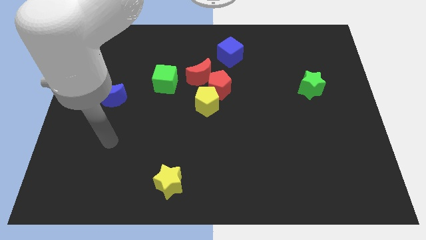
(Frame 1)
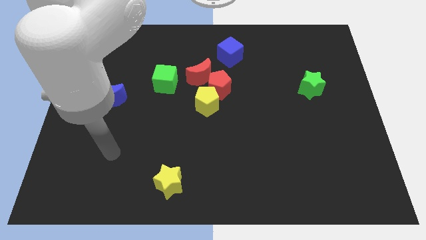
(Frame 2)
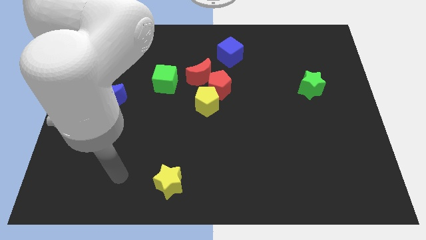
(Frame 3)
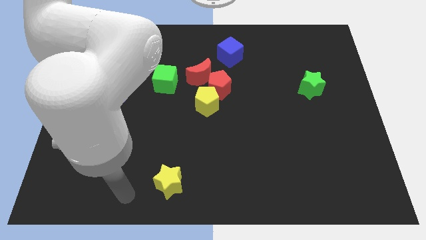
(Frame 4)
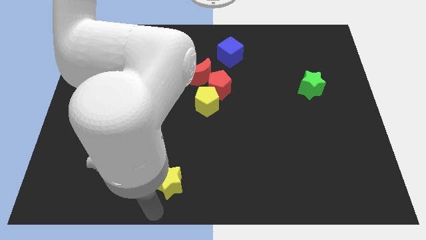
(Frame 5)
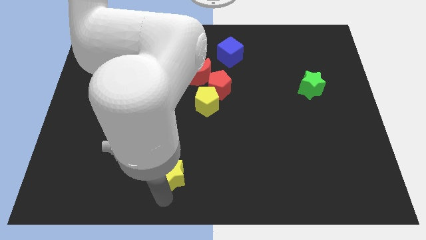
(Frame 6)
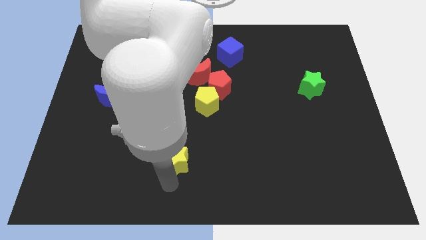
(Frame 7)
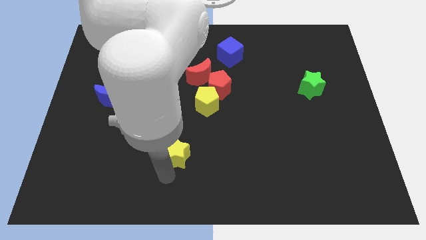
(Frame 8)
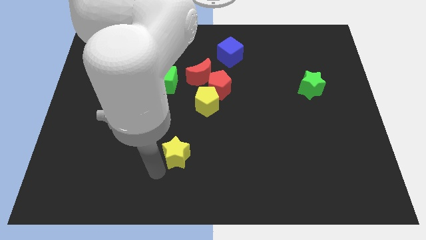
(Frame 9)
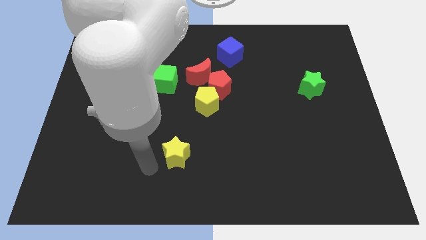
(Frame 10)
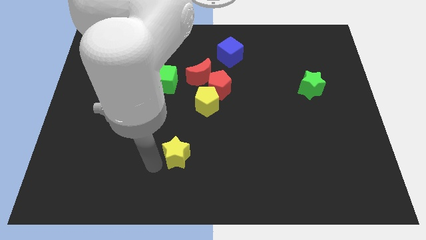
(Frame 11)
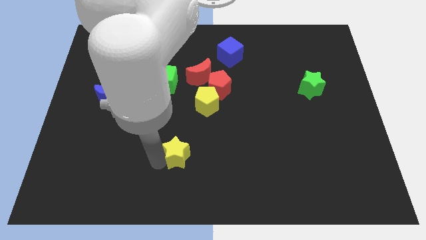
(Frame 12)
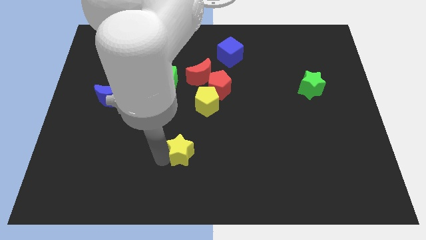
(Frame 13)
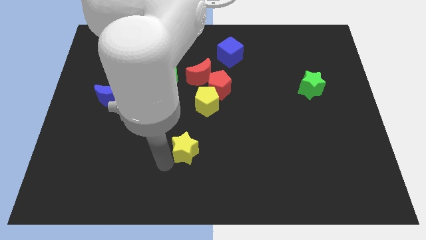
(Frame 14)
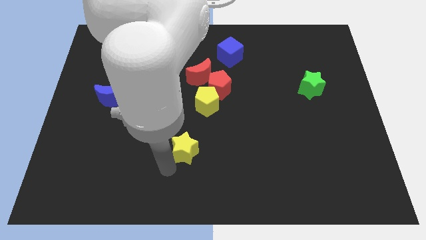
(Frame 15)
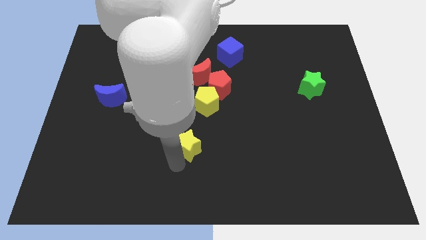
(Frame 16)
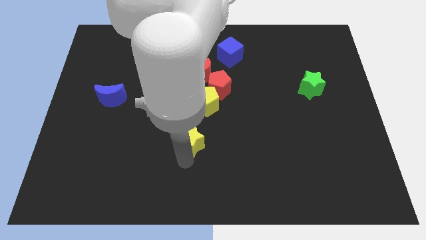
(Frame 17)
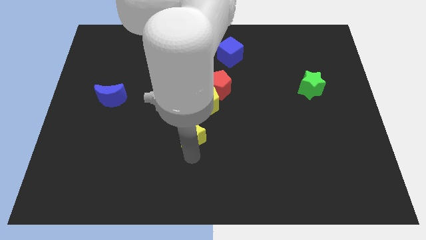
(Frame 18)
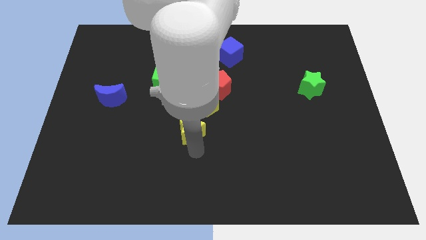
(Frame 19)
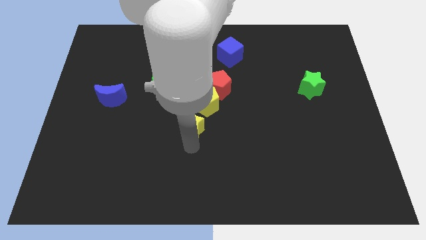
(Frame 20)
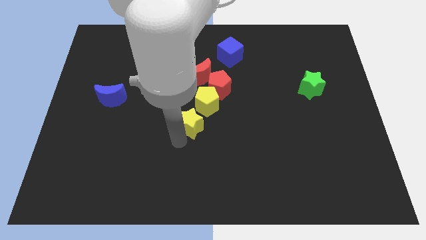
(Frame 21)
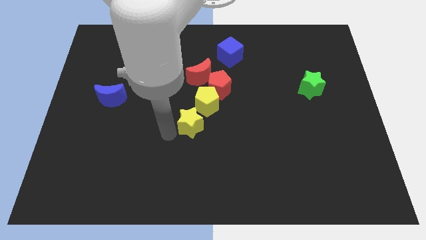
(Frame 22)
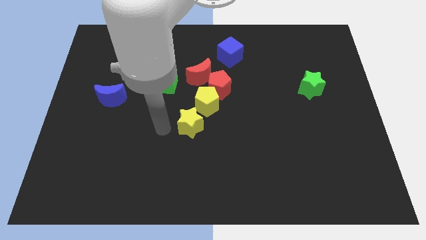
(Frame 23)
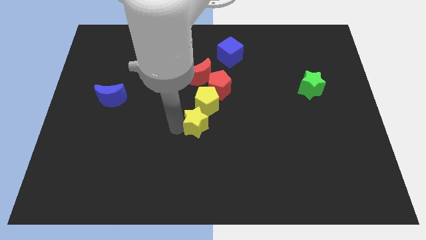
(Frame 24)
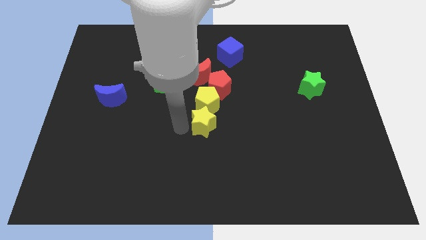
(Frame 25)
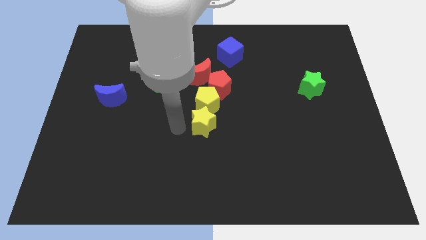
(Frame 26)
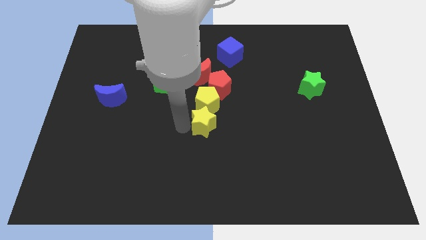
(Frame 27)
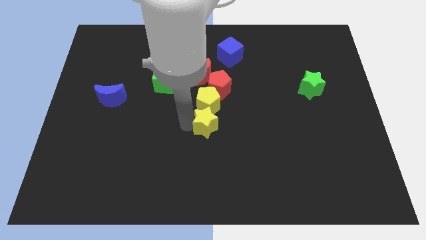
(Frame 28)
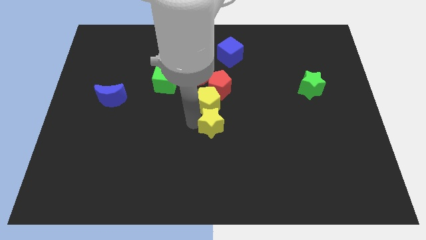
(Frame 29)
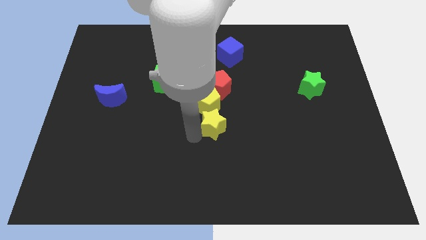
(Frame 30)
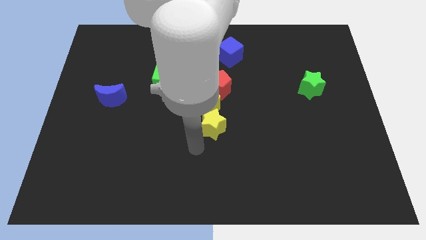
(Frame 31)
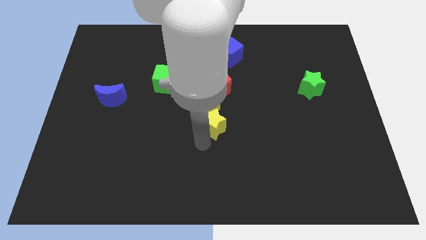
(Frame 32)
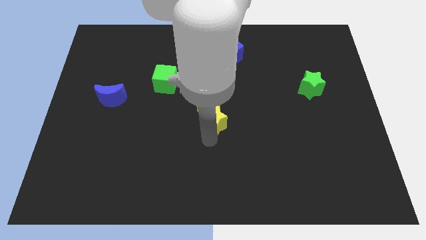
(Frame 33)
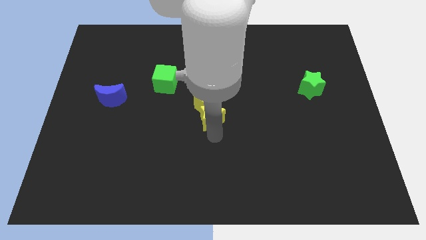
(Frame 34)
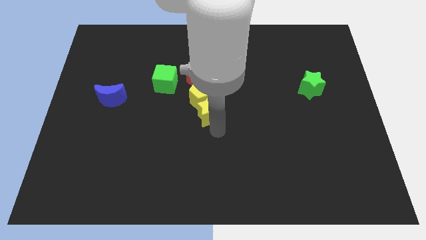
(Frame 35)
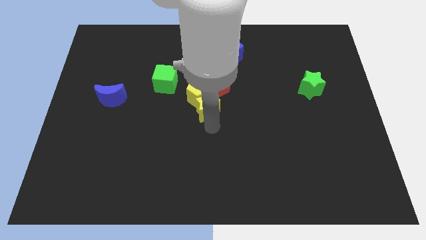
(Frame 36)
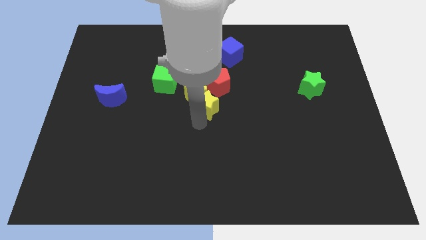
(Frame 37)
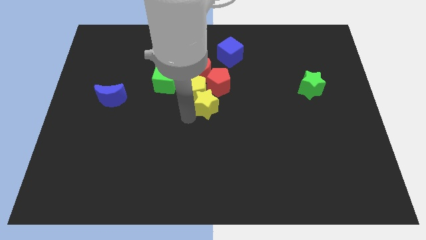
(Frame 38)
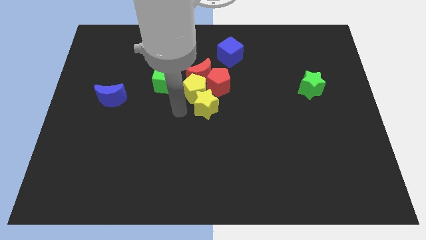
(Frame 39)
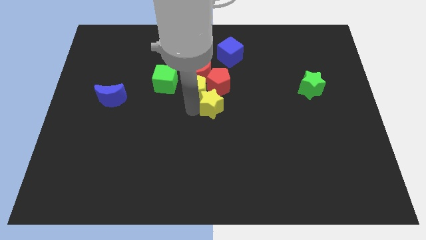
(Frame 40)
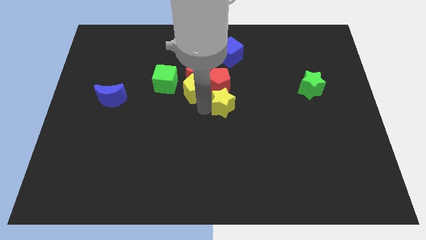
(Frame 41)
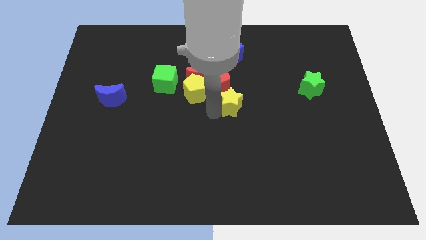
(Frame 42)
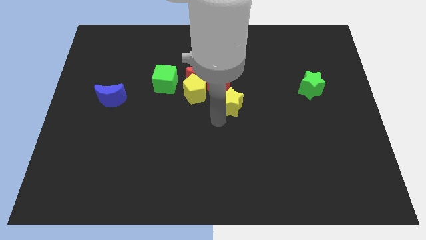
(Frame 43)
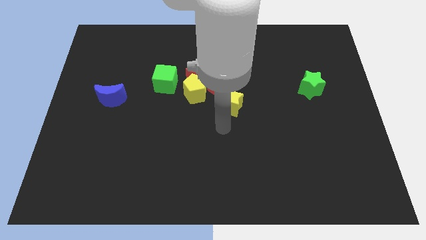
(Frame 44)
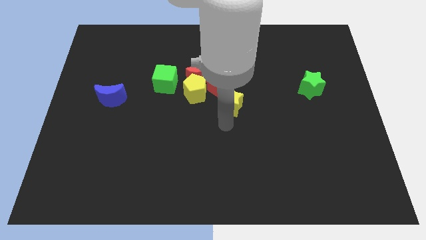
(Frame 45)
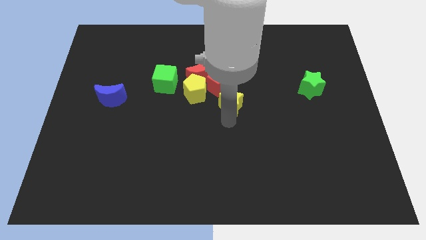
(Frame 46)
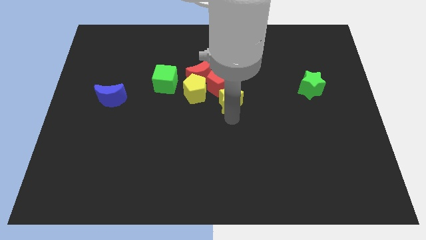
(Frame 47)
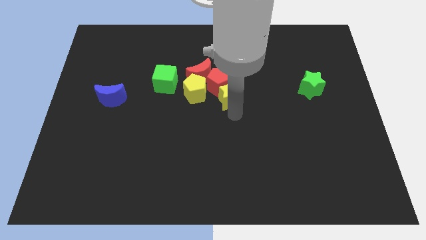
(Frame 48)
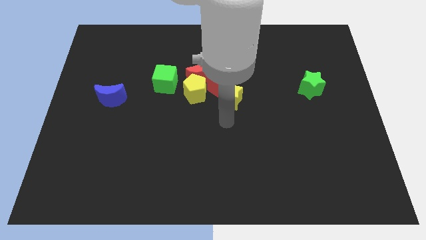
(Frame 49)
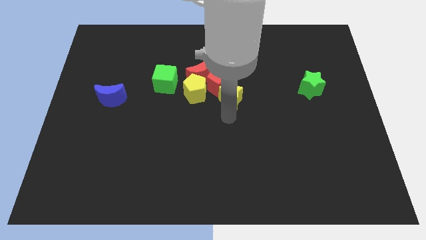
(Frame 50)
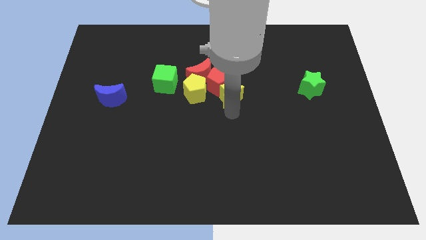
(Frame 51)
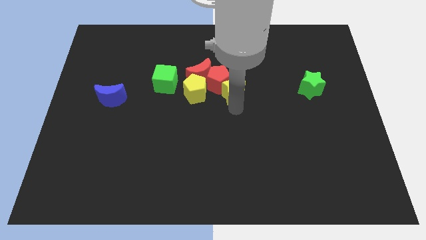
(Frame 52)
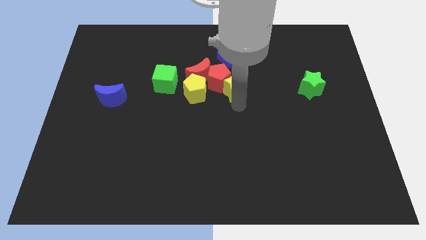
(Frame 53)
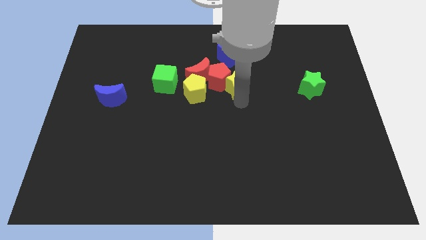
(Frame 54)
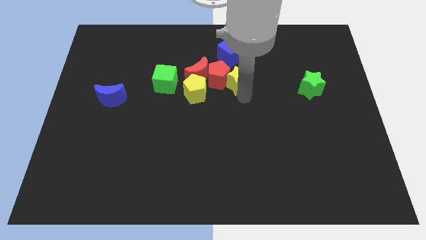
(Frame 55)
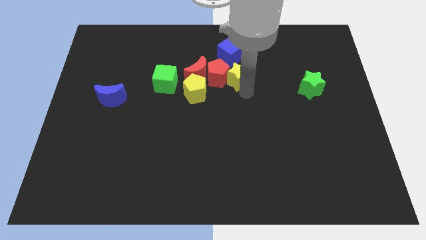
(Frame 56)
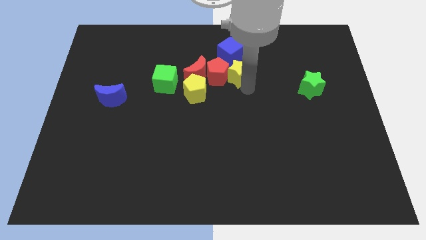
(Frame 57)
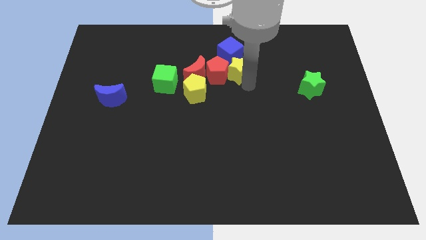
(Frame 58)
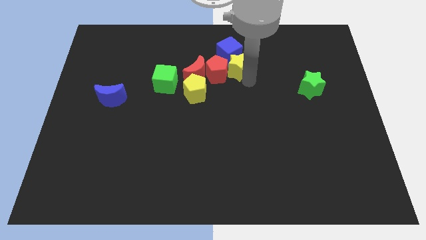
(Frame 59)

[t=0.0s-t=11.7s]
slide the yellow star close to the blue cube

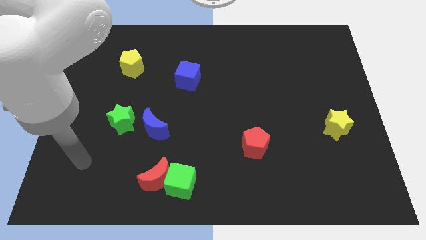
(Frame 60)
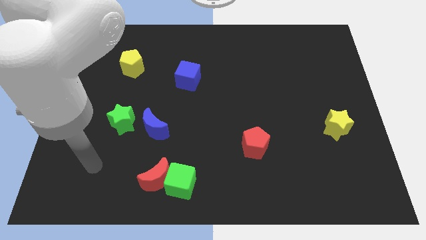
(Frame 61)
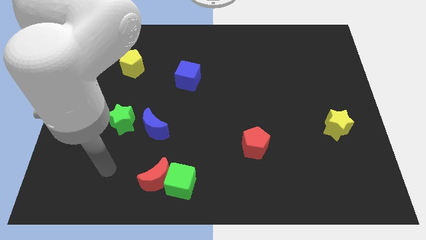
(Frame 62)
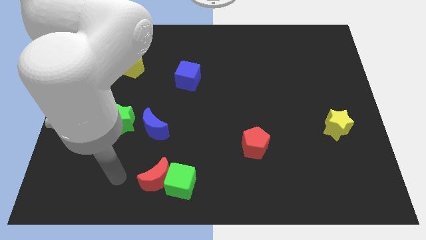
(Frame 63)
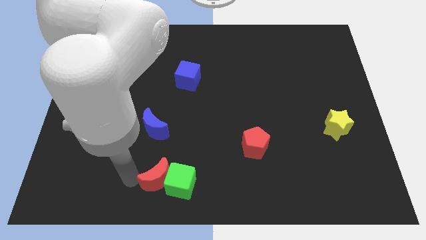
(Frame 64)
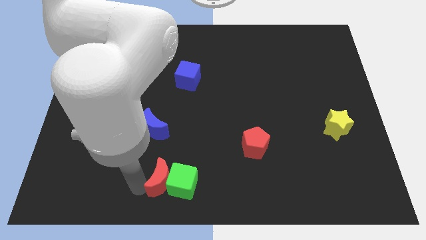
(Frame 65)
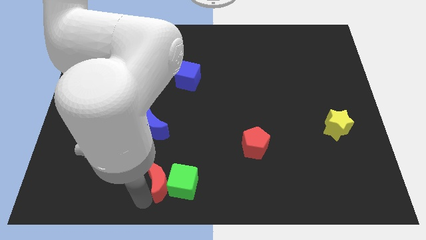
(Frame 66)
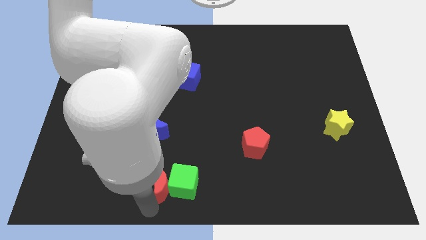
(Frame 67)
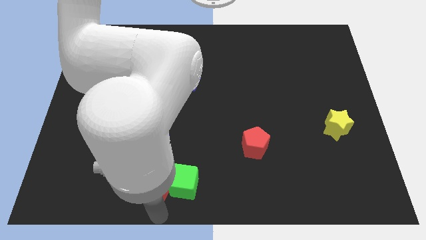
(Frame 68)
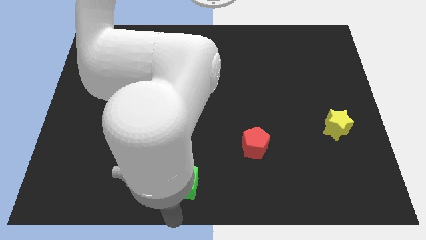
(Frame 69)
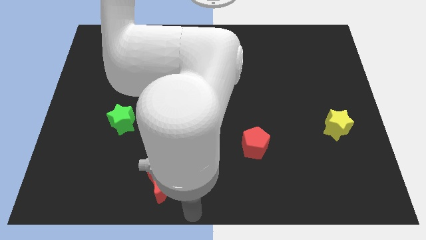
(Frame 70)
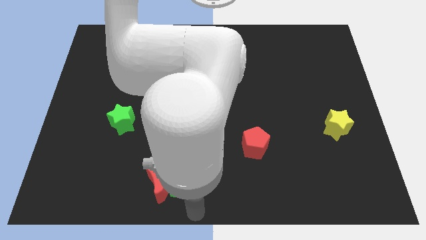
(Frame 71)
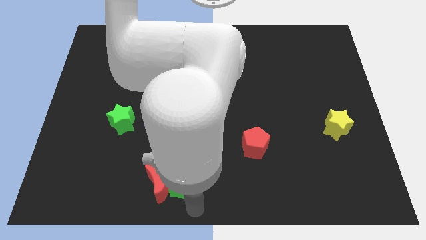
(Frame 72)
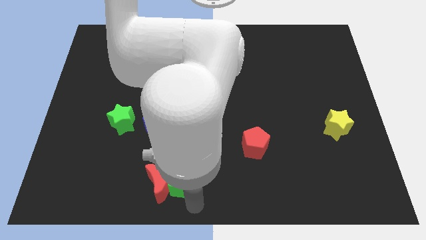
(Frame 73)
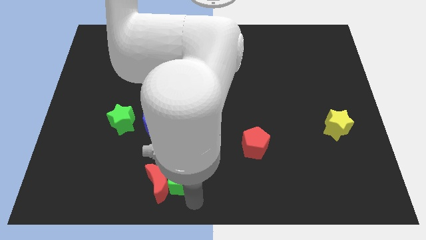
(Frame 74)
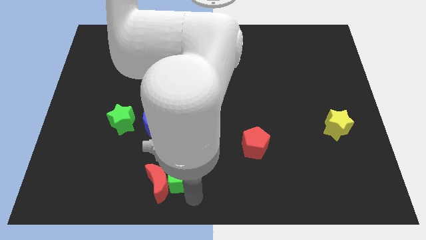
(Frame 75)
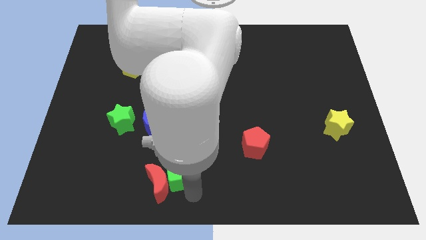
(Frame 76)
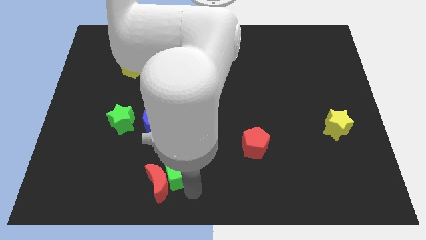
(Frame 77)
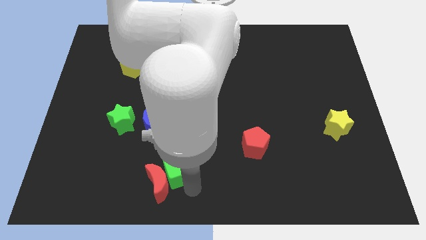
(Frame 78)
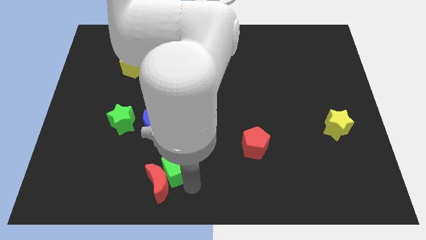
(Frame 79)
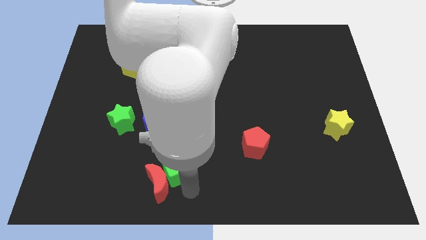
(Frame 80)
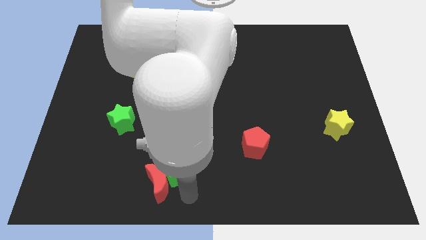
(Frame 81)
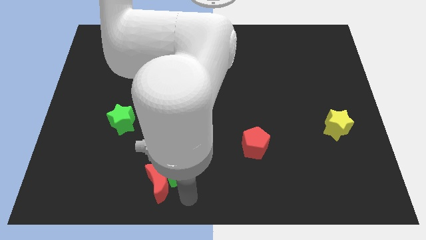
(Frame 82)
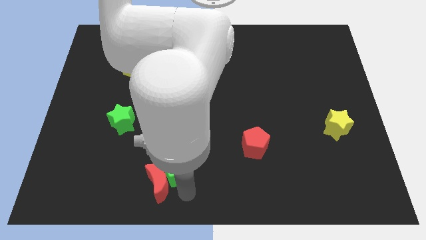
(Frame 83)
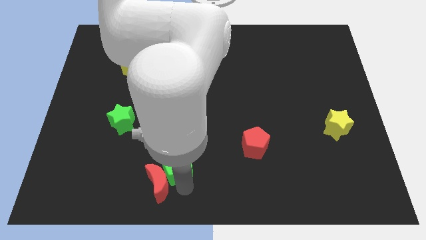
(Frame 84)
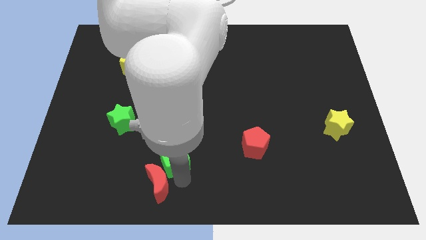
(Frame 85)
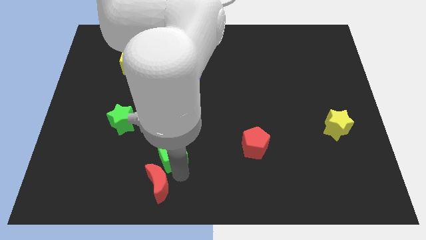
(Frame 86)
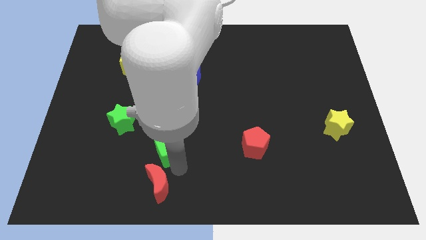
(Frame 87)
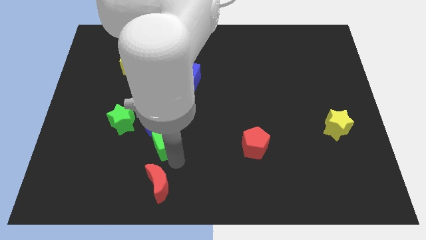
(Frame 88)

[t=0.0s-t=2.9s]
put the green cube close to the blue moon
